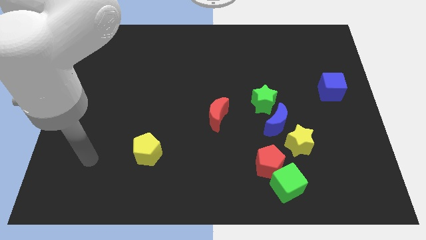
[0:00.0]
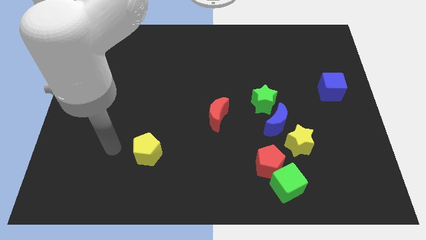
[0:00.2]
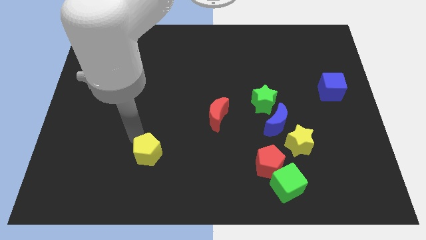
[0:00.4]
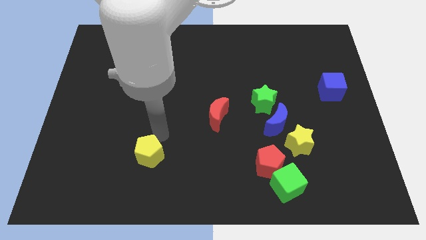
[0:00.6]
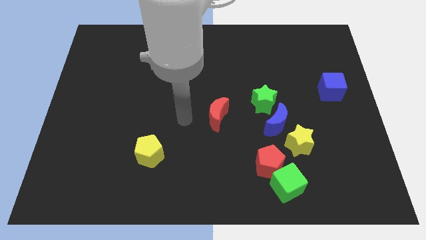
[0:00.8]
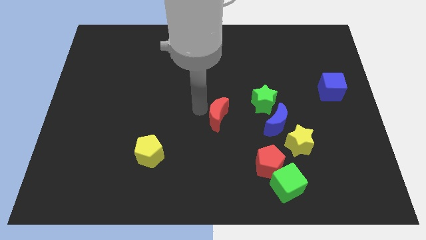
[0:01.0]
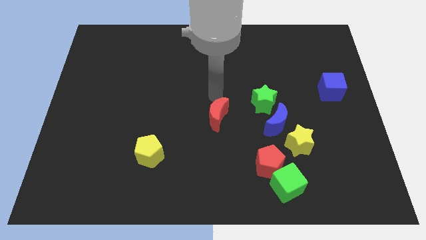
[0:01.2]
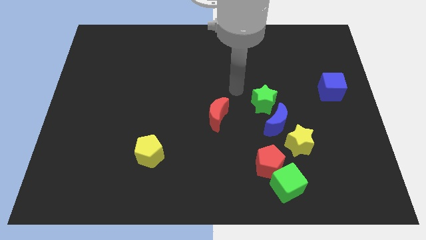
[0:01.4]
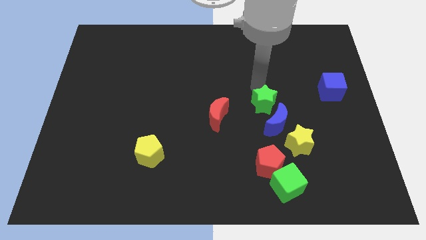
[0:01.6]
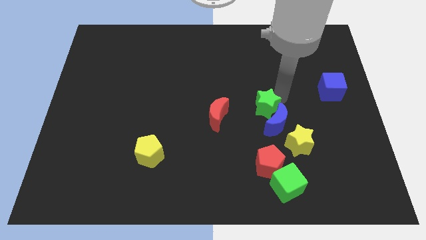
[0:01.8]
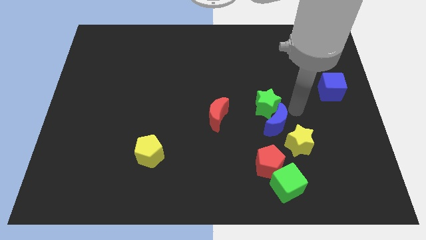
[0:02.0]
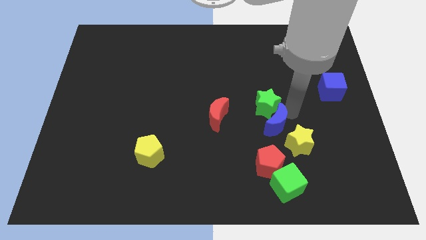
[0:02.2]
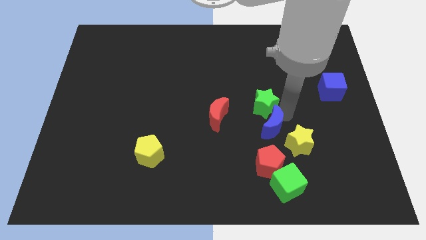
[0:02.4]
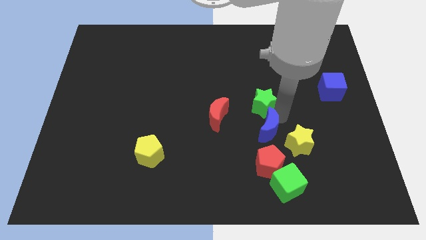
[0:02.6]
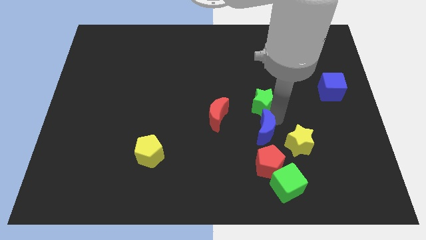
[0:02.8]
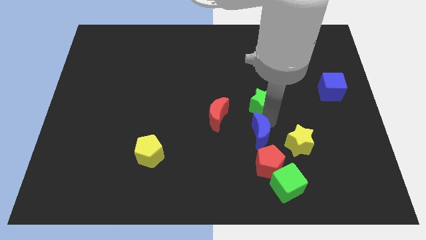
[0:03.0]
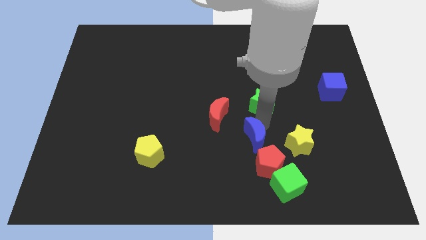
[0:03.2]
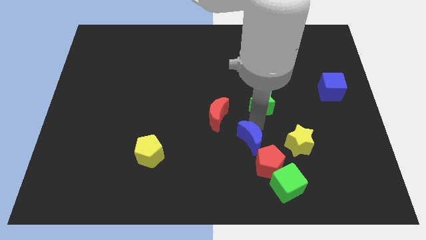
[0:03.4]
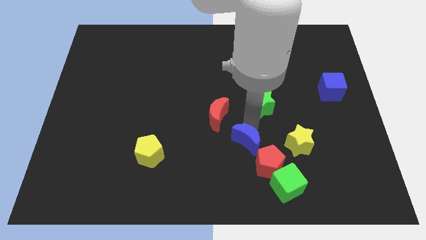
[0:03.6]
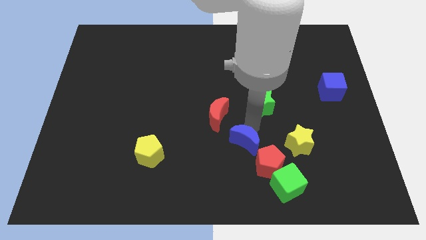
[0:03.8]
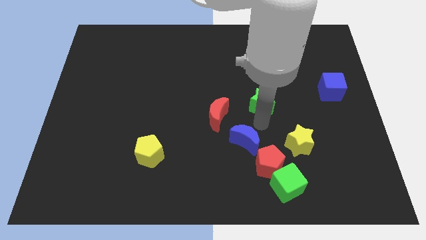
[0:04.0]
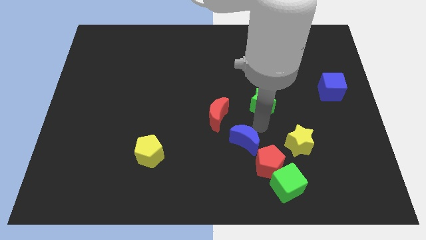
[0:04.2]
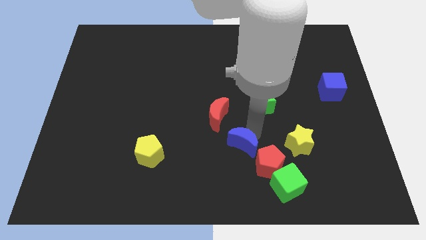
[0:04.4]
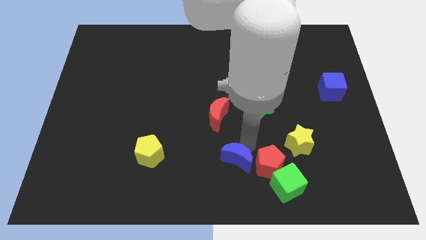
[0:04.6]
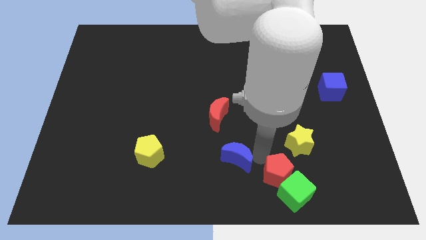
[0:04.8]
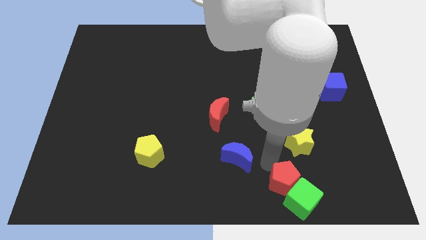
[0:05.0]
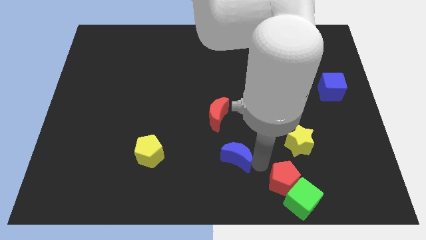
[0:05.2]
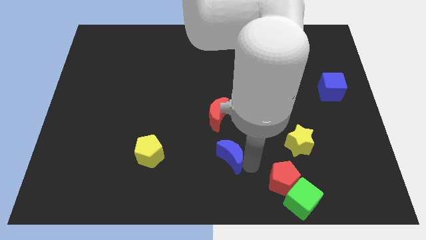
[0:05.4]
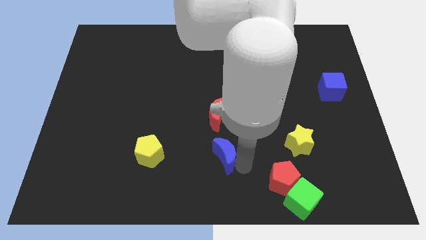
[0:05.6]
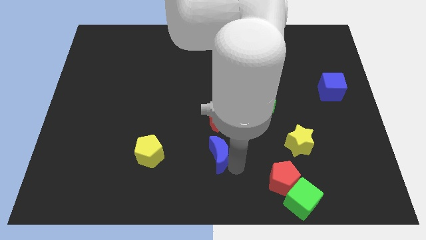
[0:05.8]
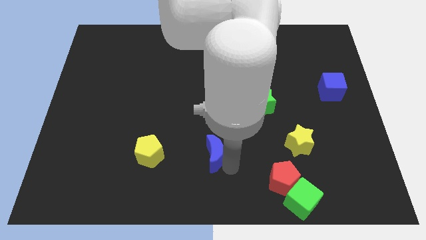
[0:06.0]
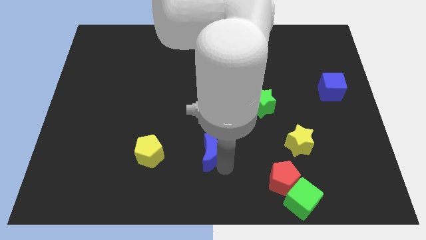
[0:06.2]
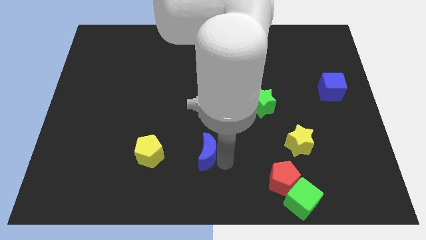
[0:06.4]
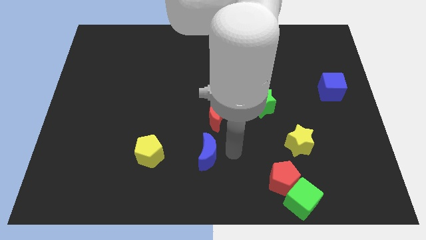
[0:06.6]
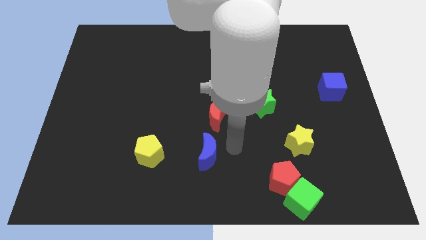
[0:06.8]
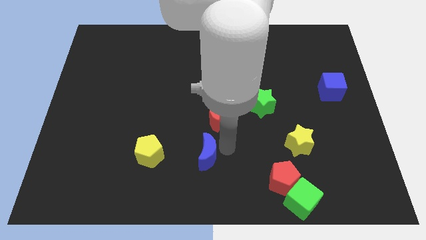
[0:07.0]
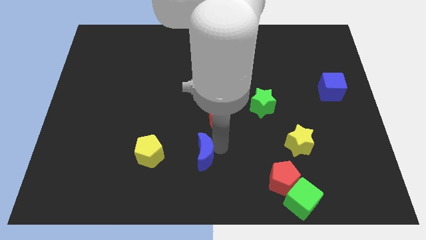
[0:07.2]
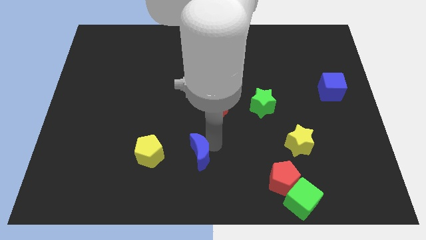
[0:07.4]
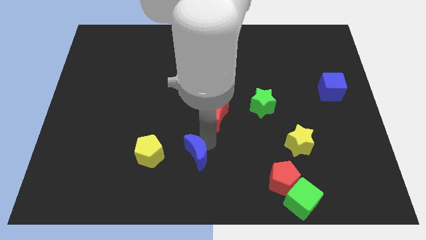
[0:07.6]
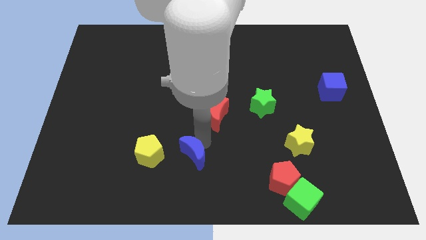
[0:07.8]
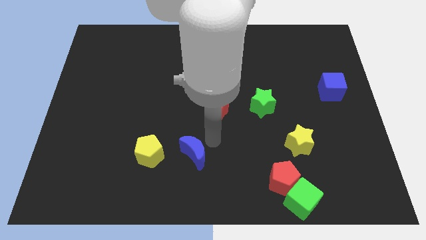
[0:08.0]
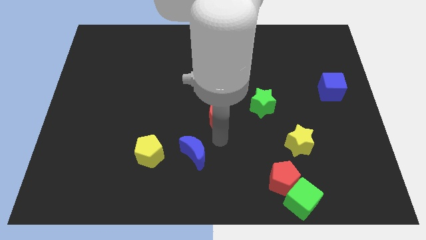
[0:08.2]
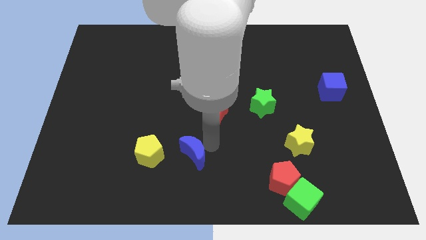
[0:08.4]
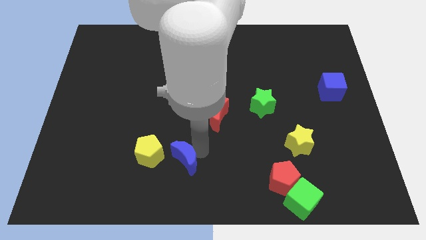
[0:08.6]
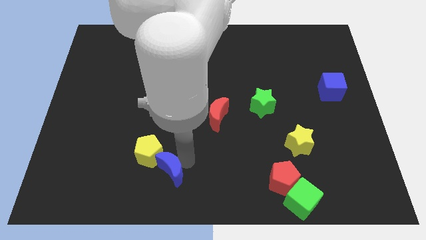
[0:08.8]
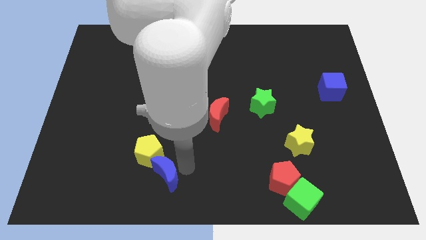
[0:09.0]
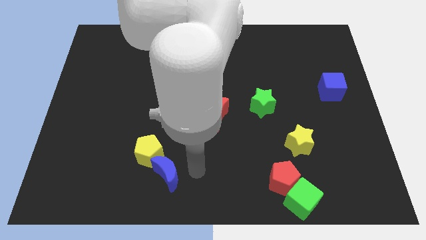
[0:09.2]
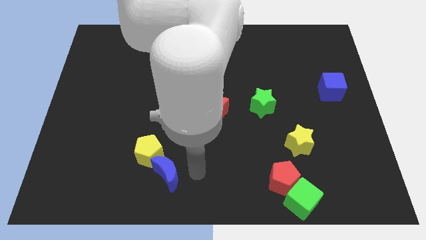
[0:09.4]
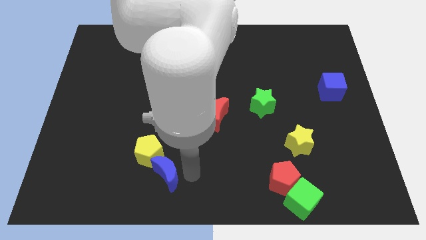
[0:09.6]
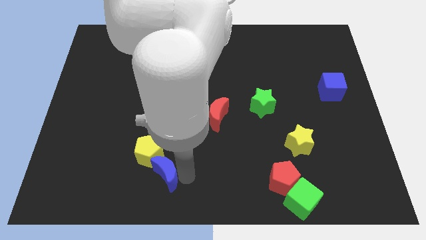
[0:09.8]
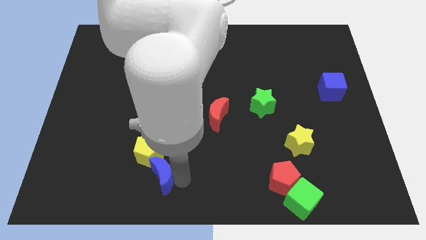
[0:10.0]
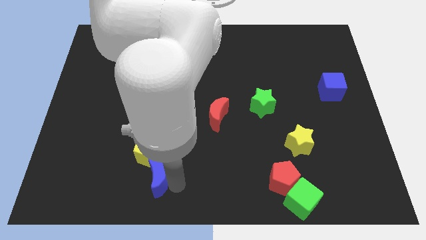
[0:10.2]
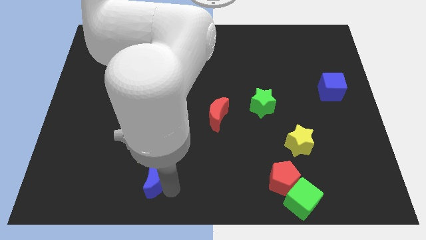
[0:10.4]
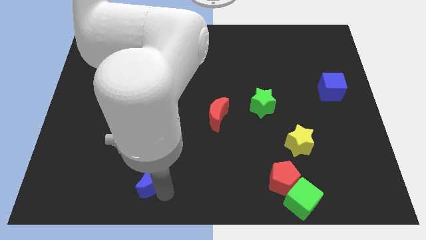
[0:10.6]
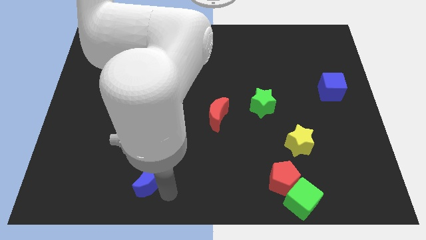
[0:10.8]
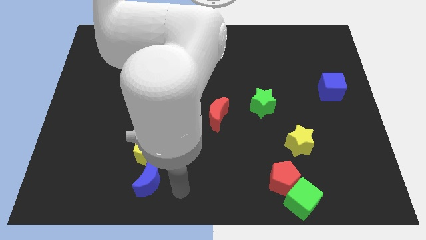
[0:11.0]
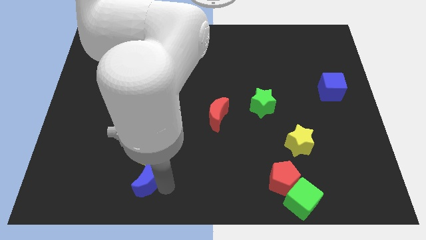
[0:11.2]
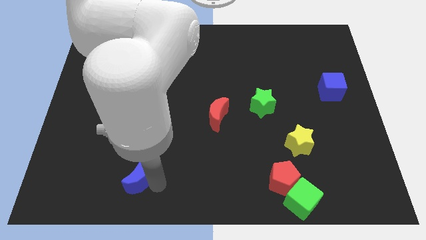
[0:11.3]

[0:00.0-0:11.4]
slide the blue moon to the bottom left side of the yellow pentagon

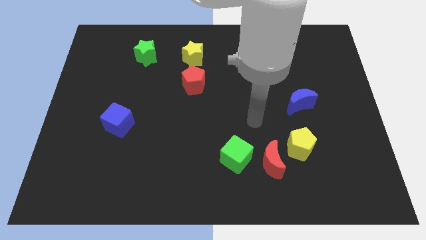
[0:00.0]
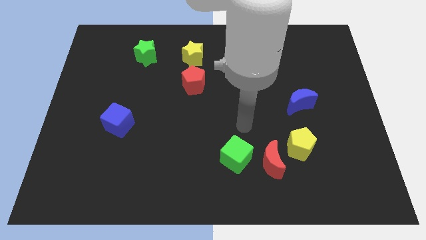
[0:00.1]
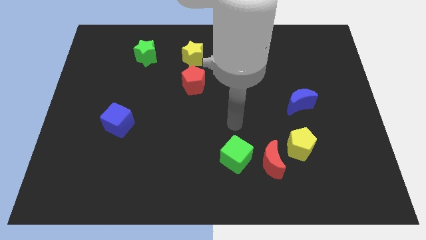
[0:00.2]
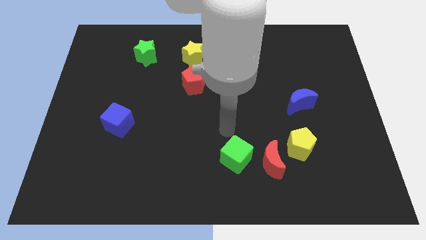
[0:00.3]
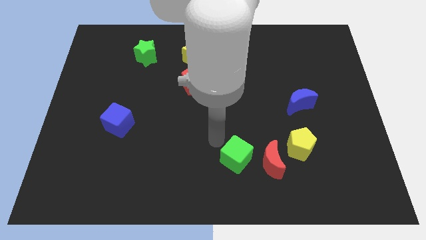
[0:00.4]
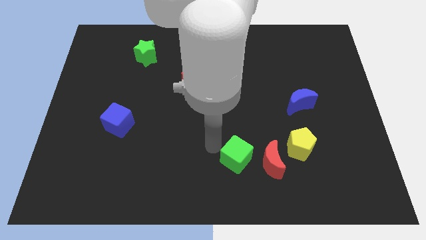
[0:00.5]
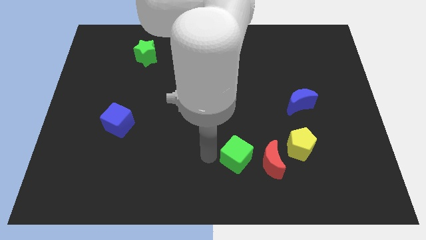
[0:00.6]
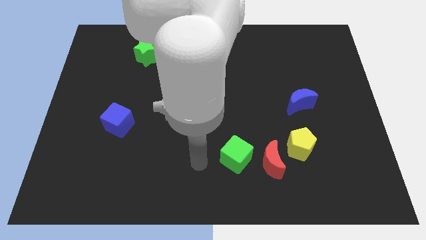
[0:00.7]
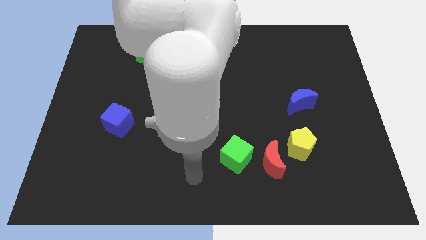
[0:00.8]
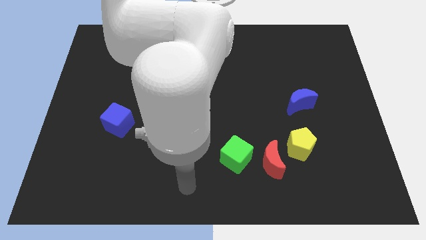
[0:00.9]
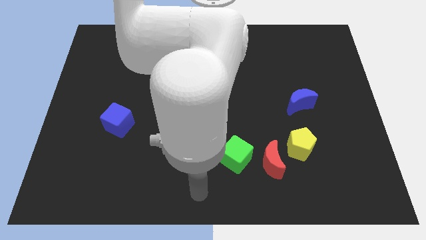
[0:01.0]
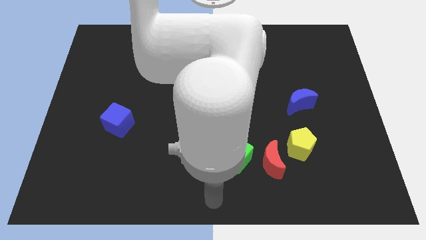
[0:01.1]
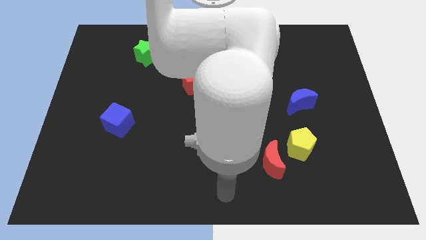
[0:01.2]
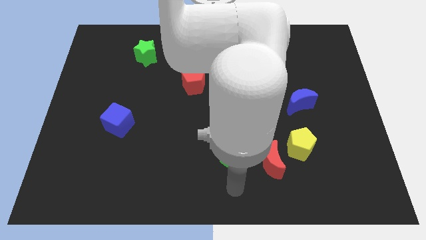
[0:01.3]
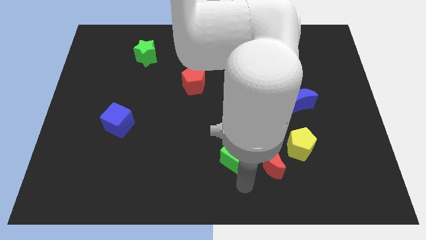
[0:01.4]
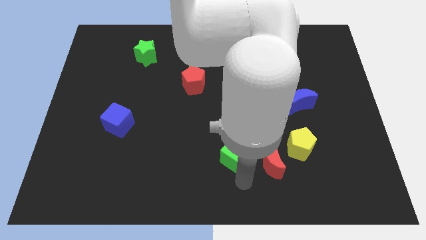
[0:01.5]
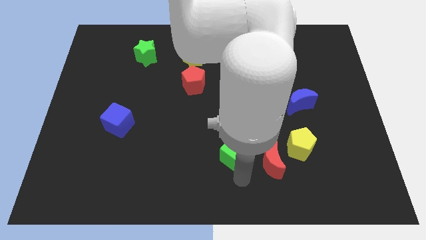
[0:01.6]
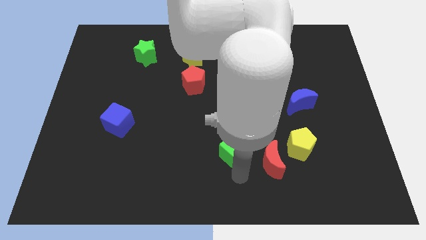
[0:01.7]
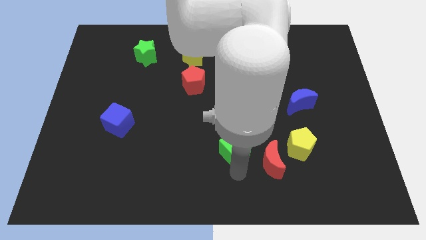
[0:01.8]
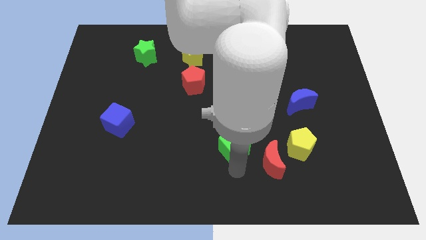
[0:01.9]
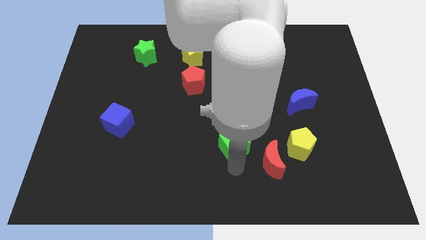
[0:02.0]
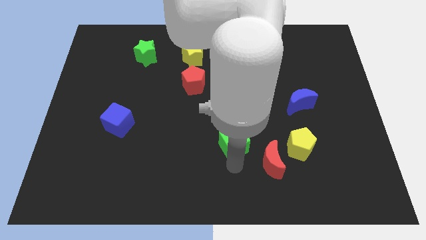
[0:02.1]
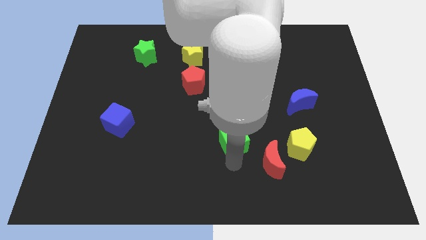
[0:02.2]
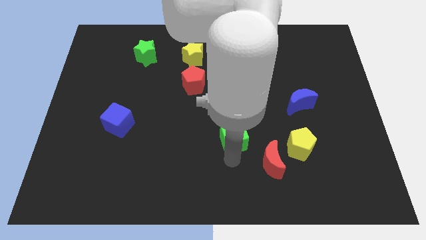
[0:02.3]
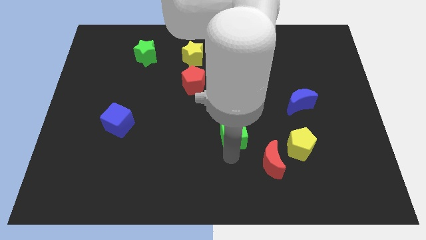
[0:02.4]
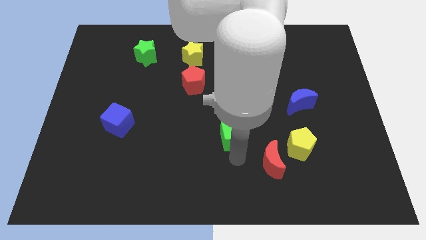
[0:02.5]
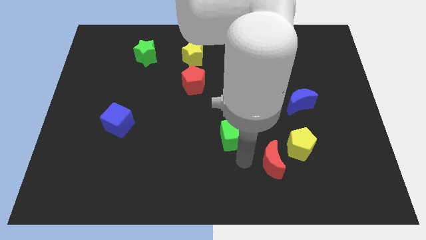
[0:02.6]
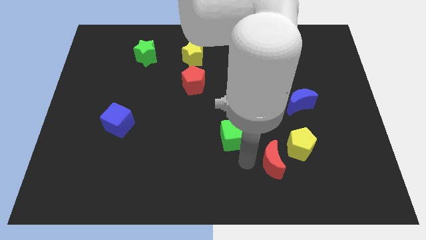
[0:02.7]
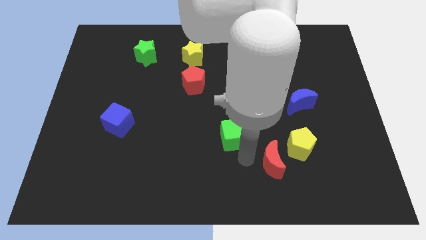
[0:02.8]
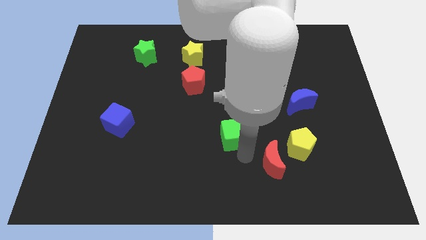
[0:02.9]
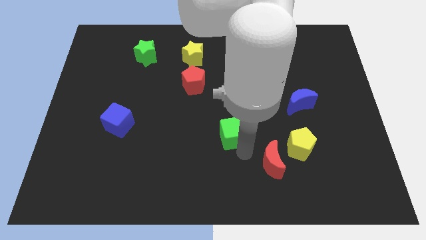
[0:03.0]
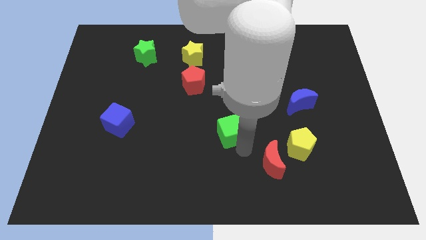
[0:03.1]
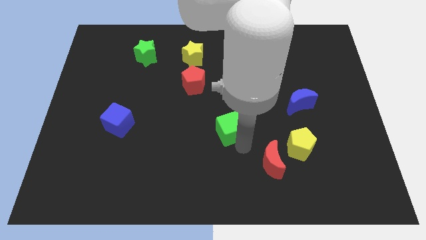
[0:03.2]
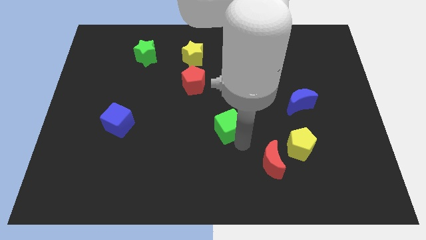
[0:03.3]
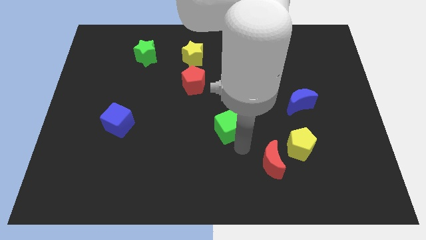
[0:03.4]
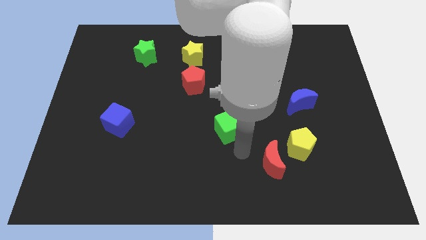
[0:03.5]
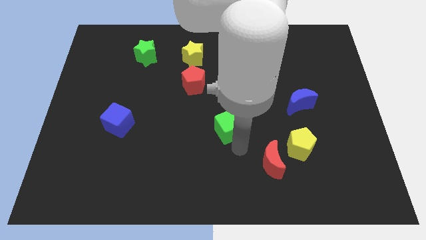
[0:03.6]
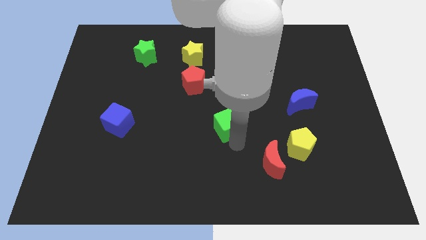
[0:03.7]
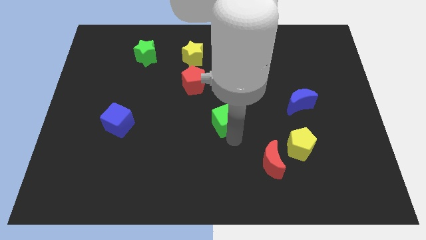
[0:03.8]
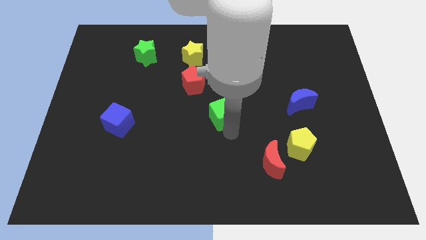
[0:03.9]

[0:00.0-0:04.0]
push the green cube to the bottom right side of the red pentagon
